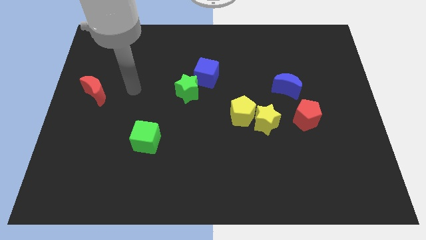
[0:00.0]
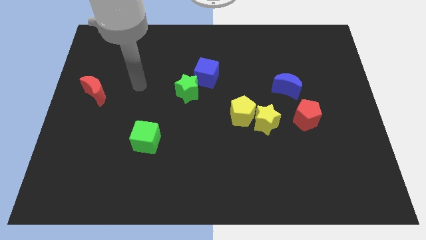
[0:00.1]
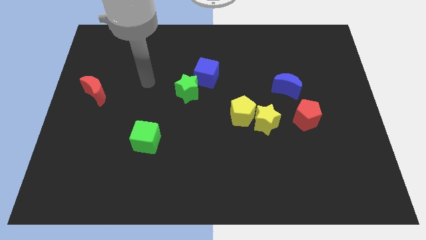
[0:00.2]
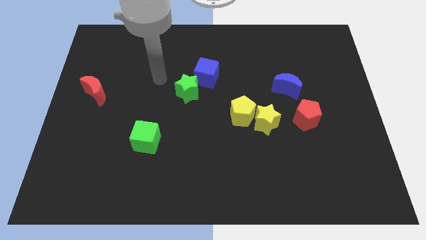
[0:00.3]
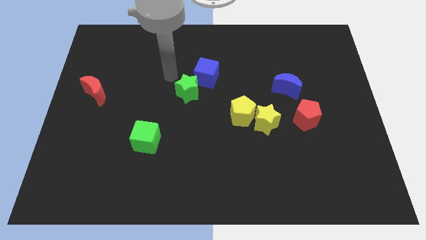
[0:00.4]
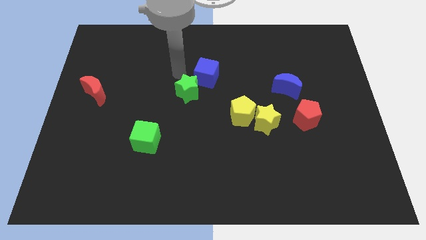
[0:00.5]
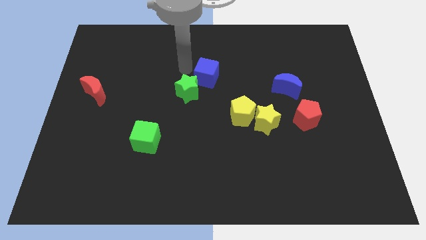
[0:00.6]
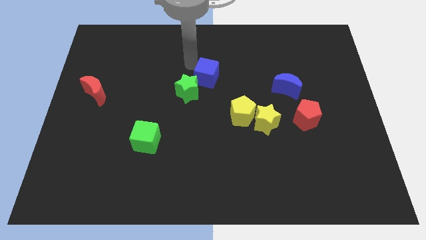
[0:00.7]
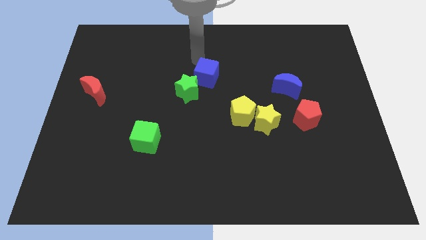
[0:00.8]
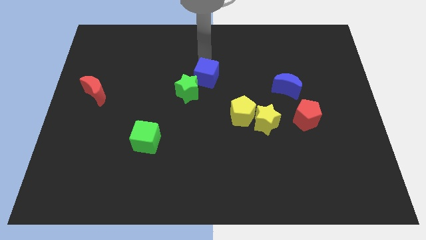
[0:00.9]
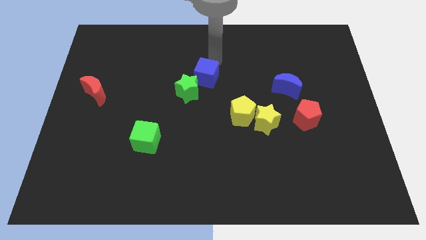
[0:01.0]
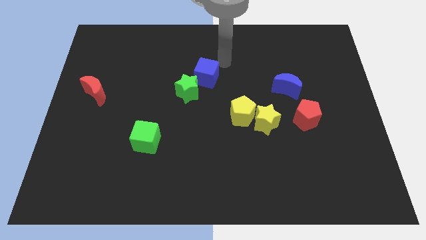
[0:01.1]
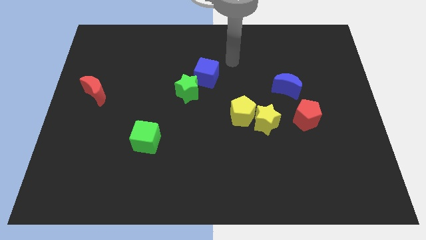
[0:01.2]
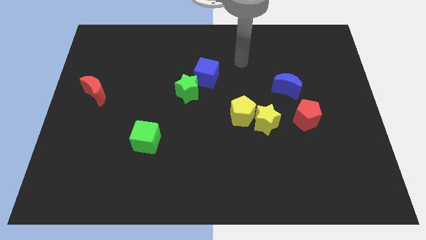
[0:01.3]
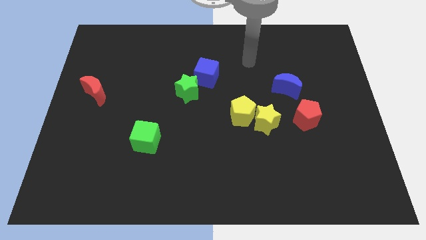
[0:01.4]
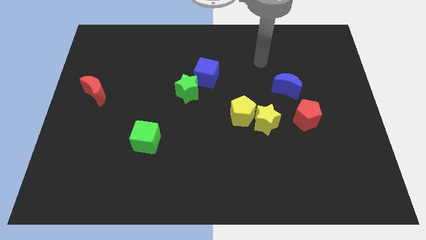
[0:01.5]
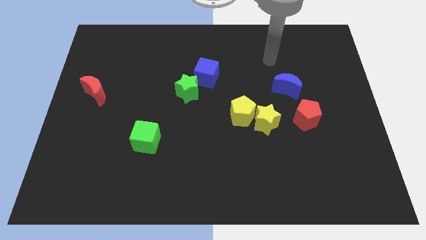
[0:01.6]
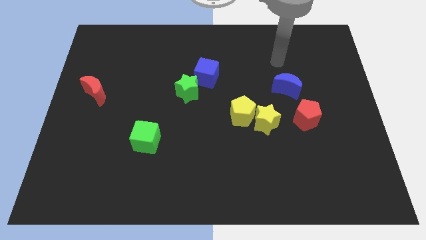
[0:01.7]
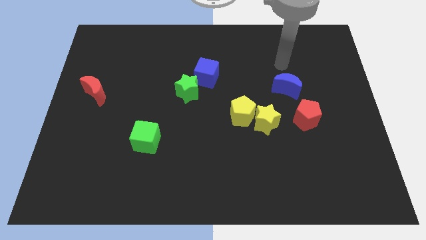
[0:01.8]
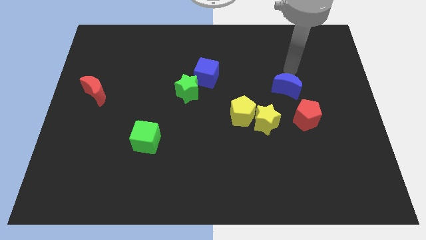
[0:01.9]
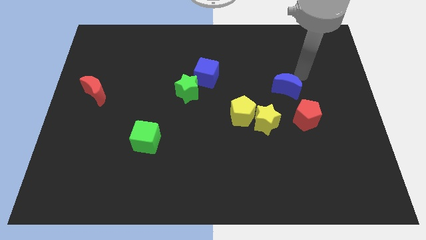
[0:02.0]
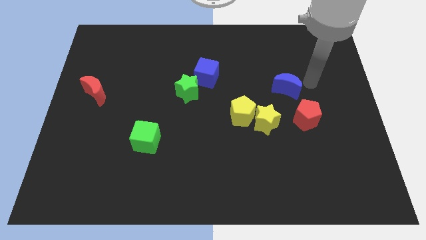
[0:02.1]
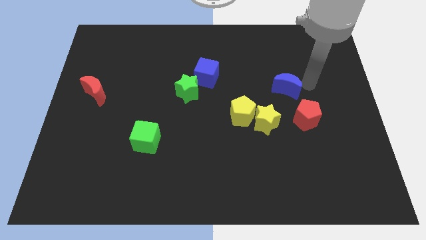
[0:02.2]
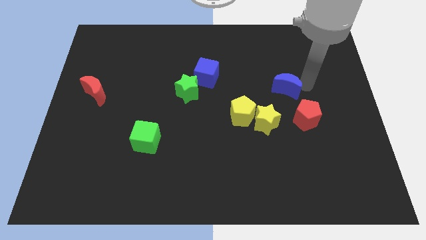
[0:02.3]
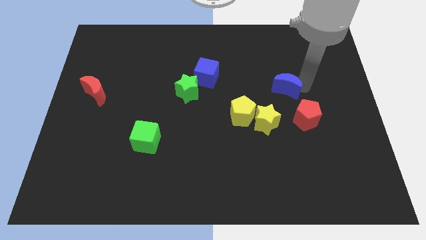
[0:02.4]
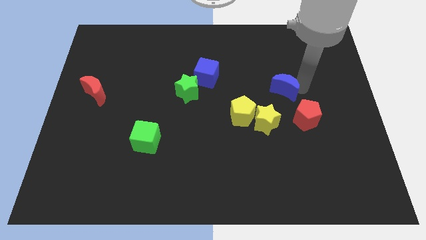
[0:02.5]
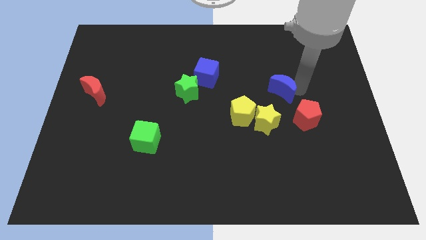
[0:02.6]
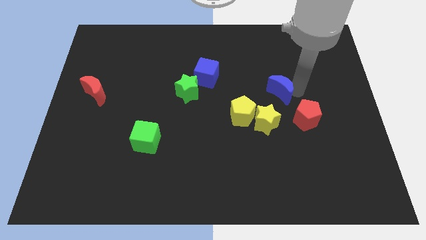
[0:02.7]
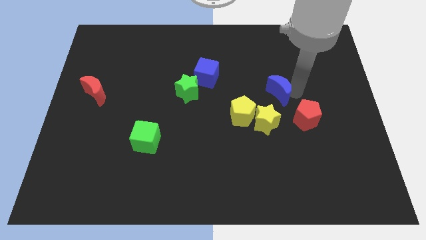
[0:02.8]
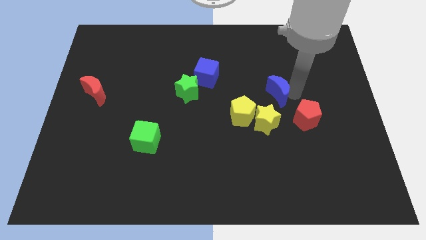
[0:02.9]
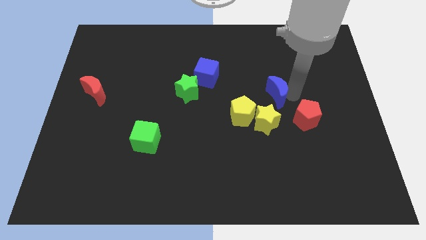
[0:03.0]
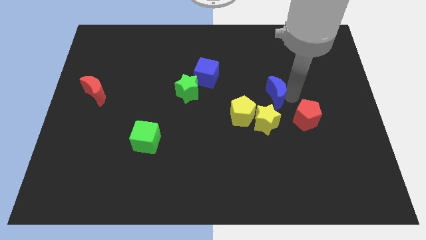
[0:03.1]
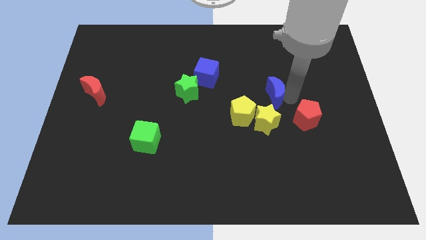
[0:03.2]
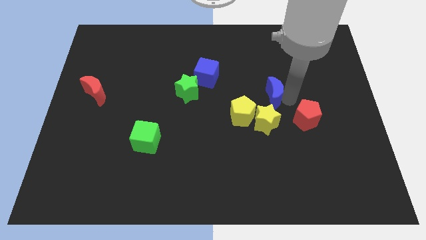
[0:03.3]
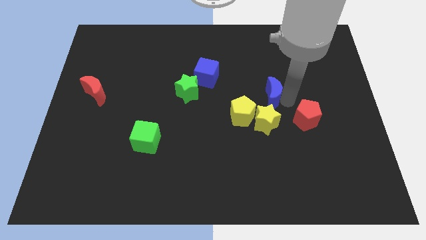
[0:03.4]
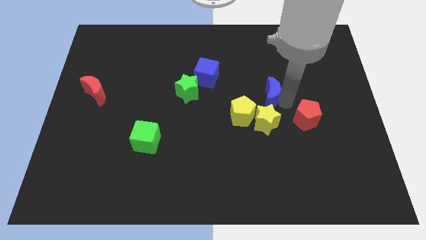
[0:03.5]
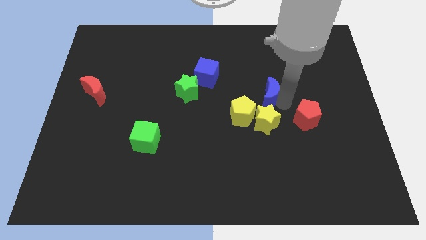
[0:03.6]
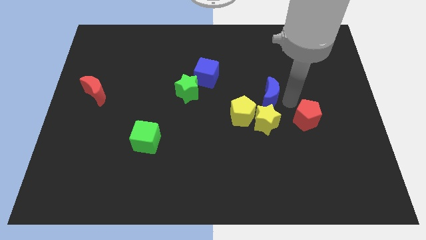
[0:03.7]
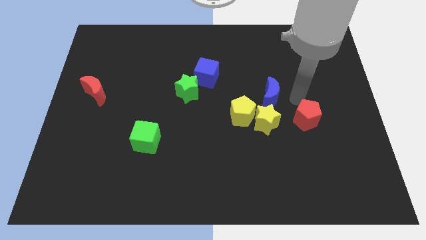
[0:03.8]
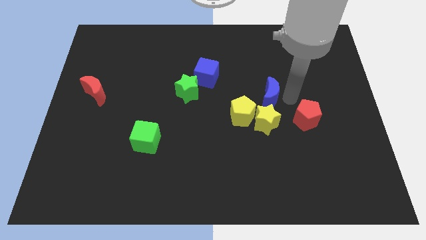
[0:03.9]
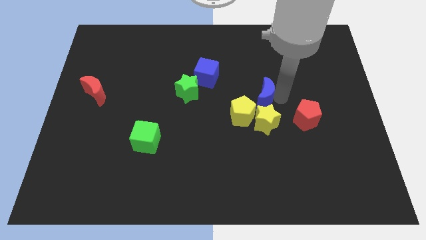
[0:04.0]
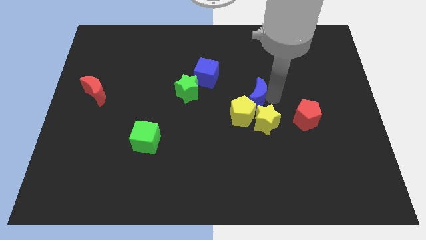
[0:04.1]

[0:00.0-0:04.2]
slide the blue moon down and to the left diagonally somewhat

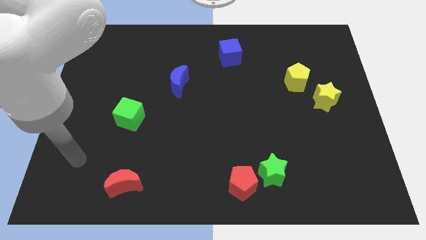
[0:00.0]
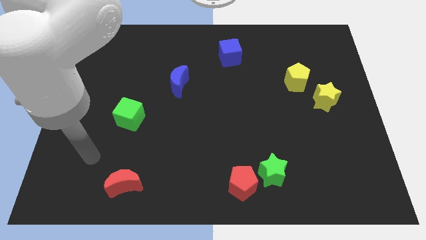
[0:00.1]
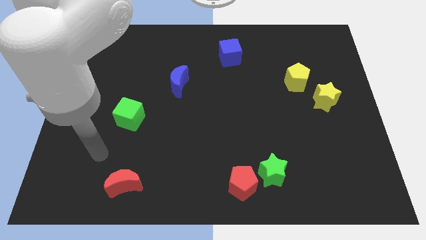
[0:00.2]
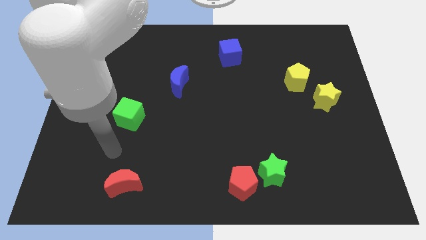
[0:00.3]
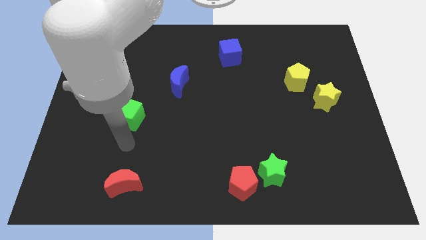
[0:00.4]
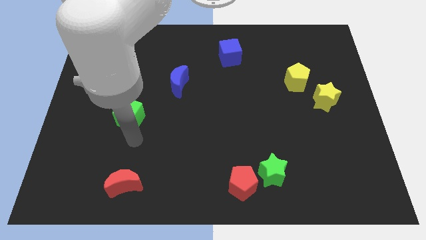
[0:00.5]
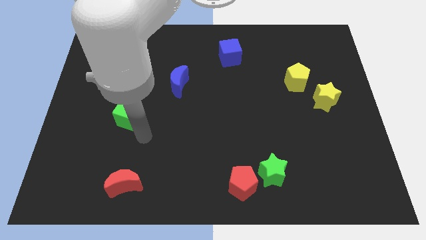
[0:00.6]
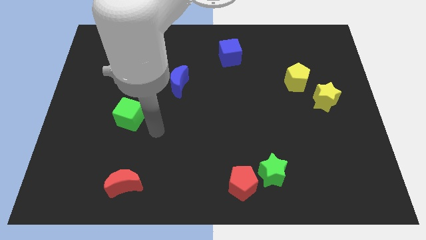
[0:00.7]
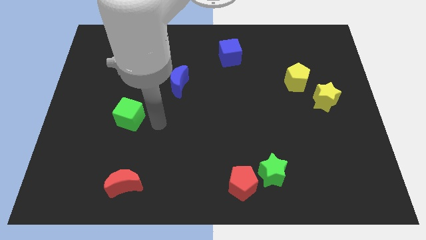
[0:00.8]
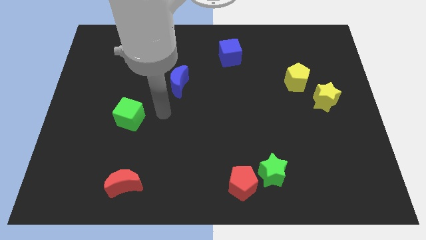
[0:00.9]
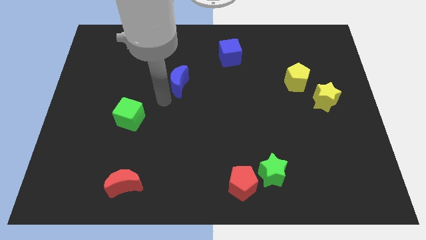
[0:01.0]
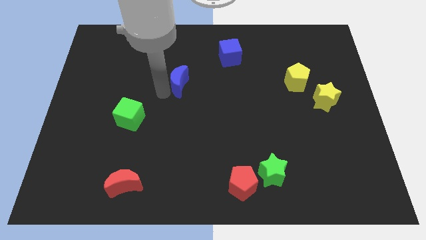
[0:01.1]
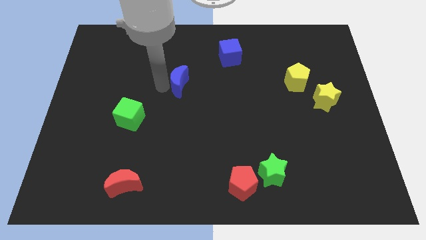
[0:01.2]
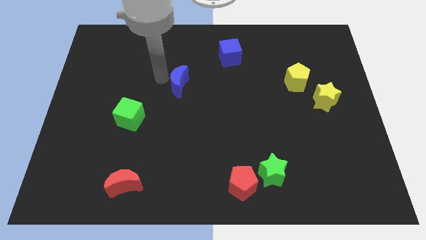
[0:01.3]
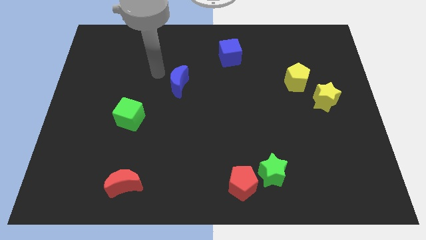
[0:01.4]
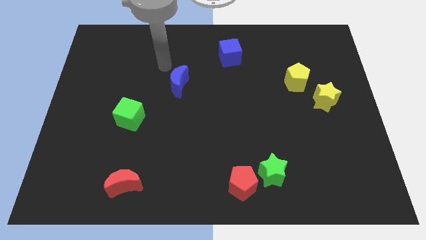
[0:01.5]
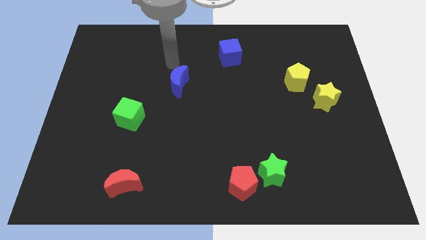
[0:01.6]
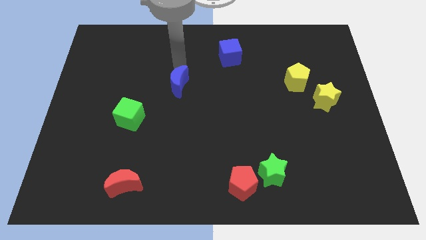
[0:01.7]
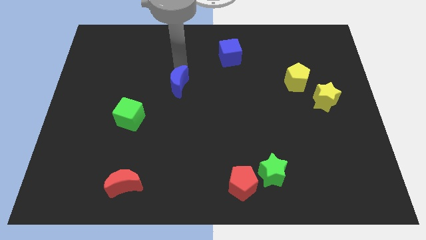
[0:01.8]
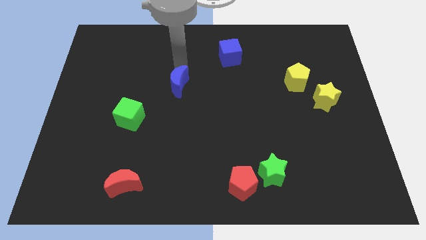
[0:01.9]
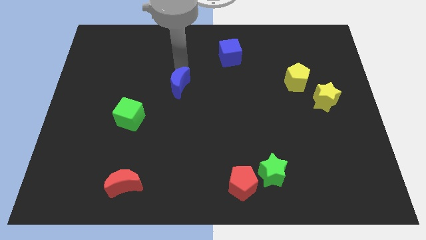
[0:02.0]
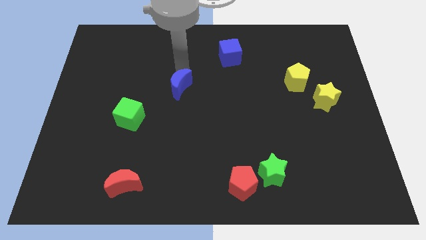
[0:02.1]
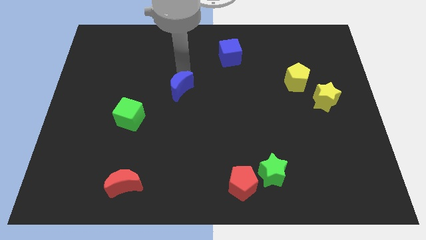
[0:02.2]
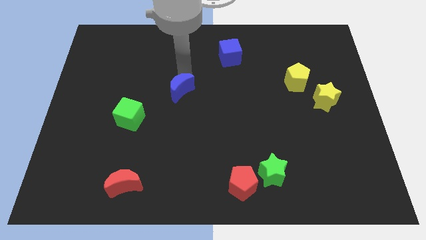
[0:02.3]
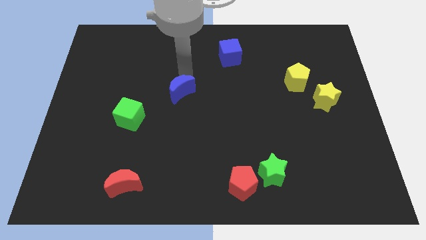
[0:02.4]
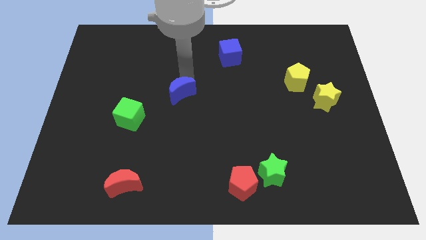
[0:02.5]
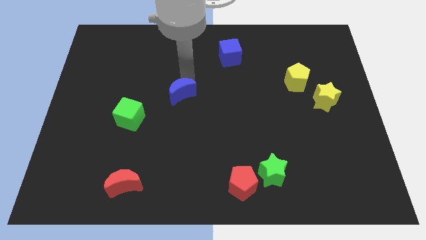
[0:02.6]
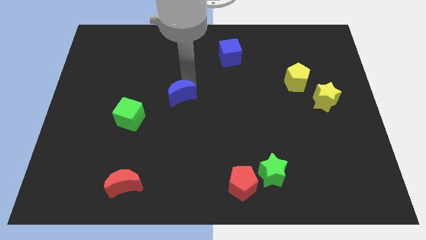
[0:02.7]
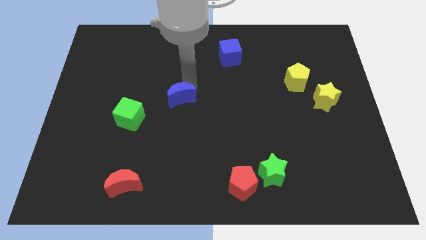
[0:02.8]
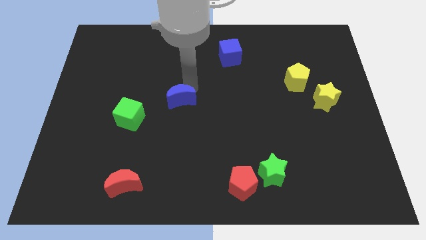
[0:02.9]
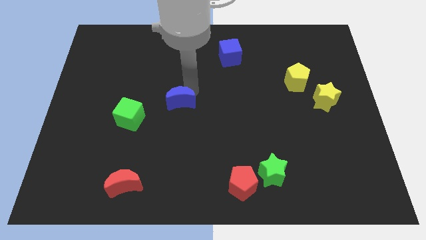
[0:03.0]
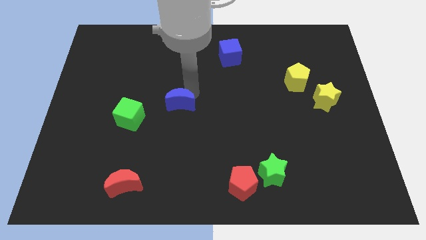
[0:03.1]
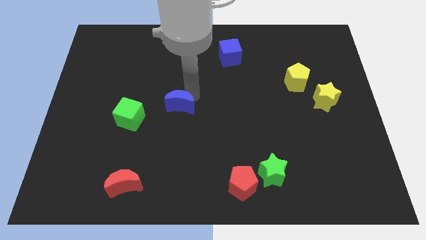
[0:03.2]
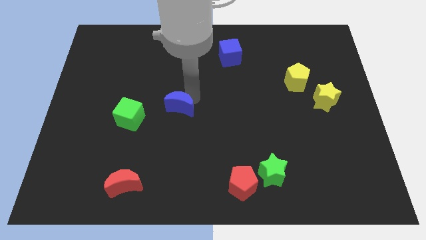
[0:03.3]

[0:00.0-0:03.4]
move the blue moon downwards somewhat
